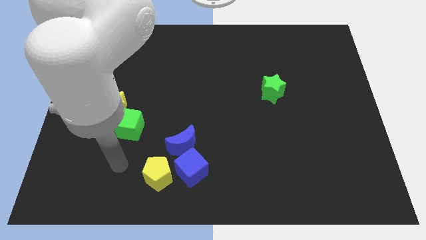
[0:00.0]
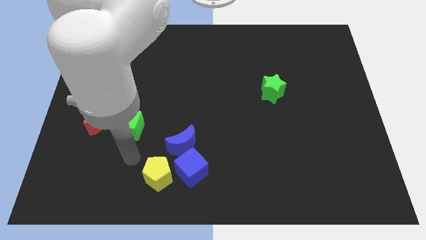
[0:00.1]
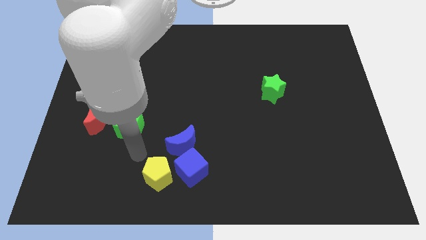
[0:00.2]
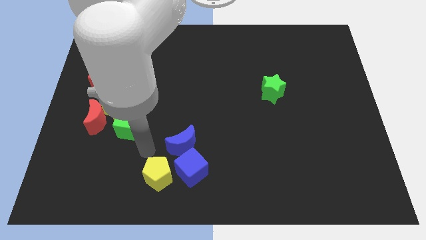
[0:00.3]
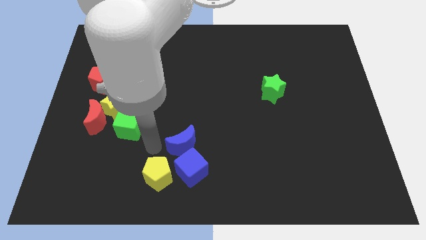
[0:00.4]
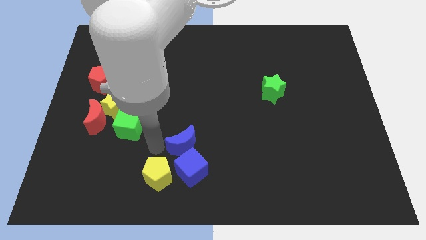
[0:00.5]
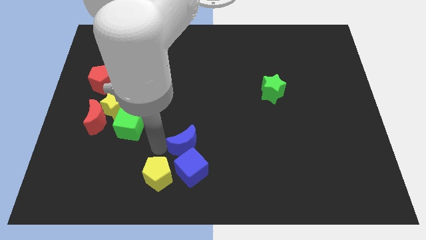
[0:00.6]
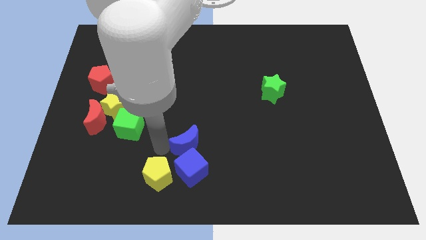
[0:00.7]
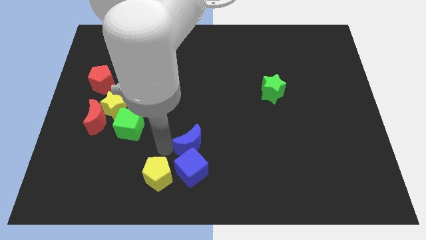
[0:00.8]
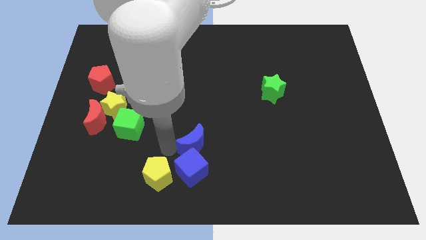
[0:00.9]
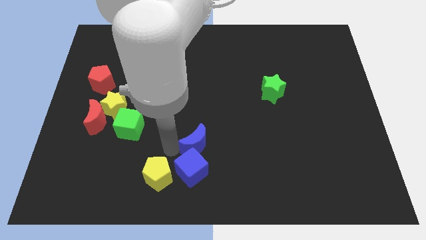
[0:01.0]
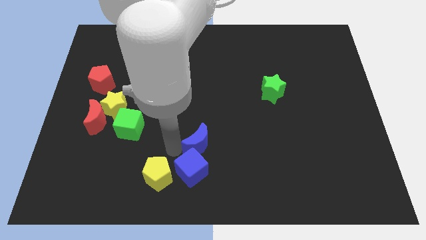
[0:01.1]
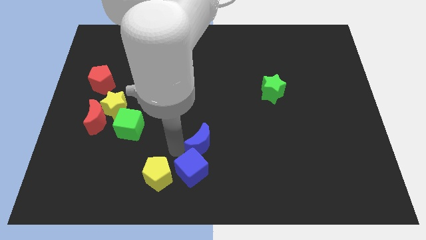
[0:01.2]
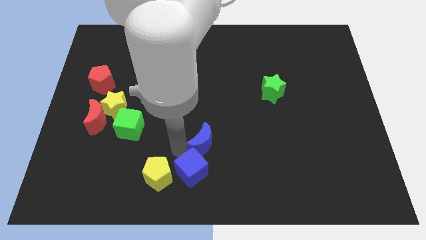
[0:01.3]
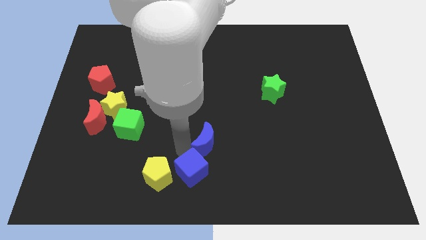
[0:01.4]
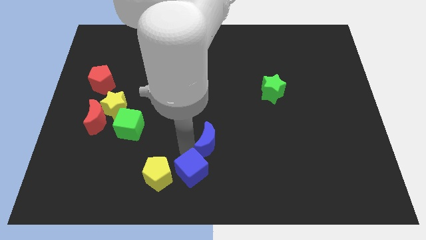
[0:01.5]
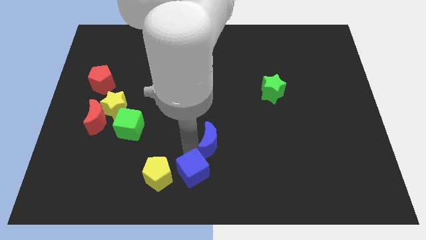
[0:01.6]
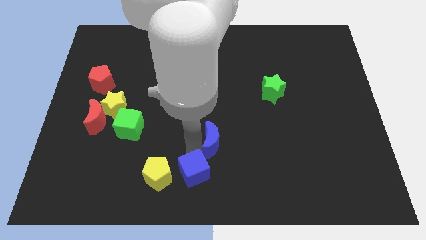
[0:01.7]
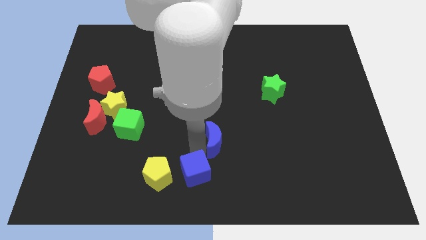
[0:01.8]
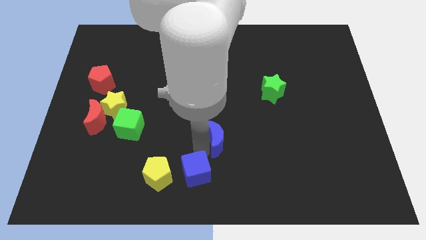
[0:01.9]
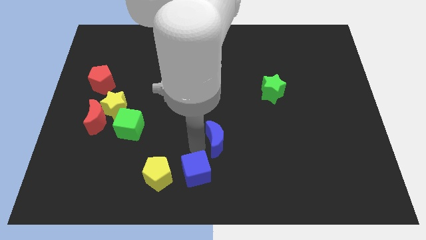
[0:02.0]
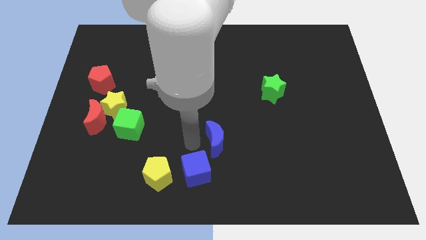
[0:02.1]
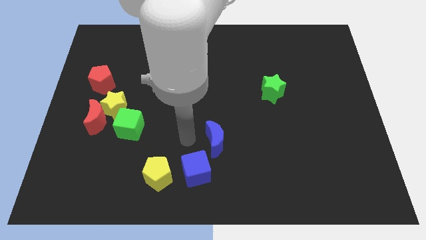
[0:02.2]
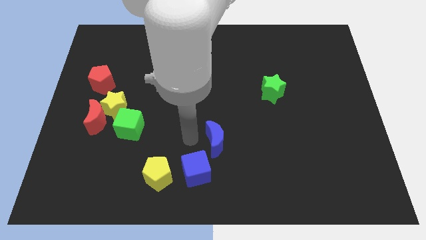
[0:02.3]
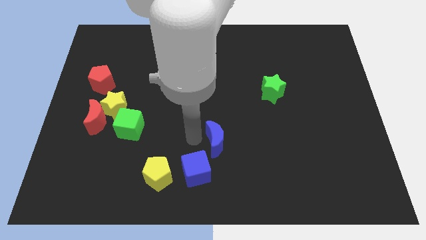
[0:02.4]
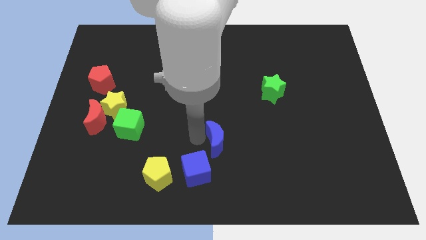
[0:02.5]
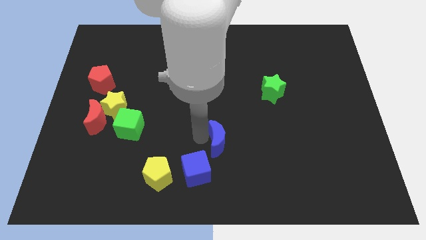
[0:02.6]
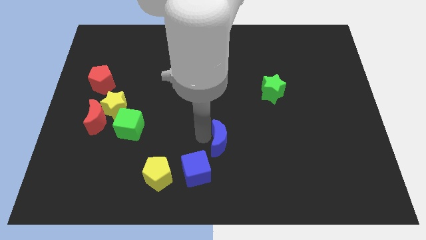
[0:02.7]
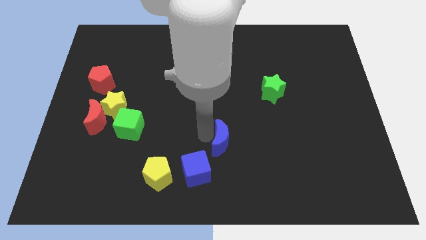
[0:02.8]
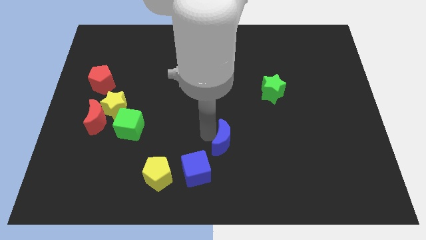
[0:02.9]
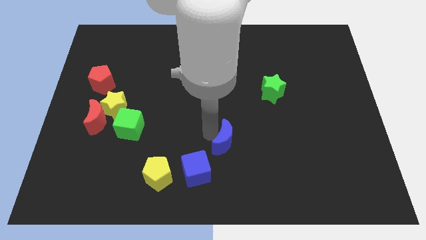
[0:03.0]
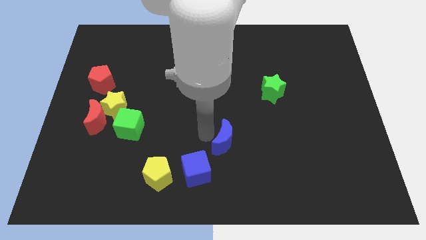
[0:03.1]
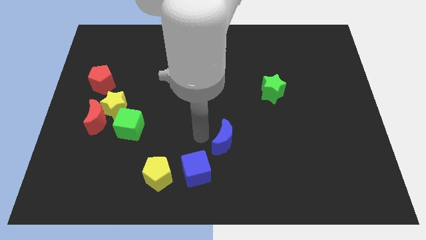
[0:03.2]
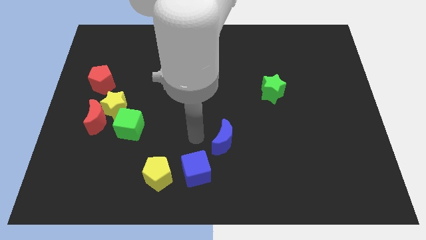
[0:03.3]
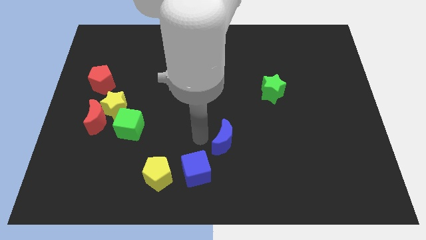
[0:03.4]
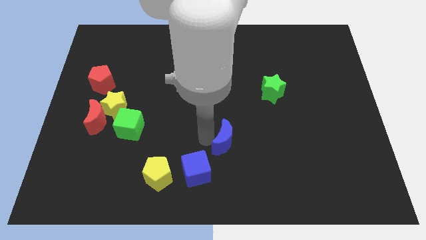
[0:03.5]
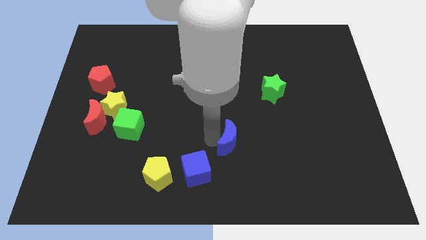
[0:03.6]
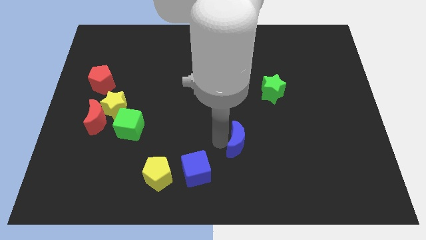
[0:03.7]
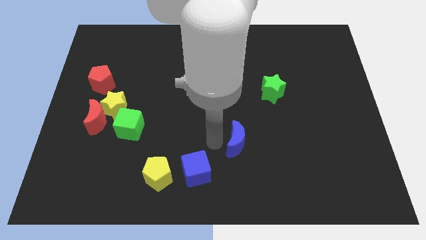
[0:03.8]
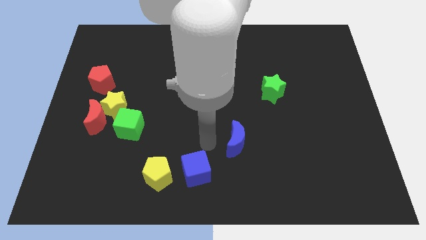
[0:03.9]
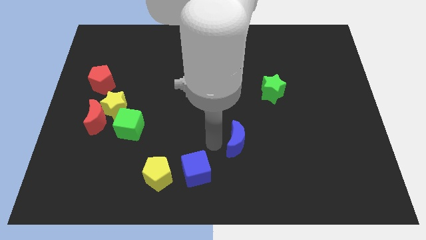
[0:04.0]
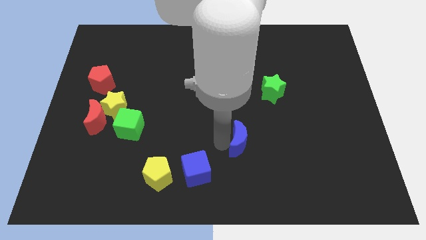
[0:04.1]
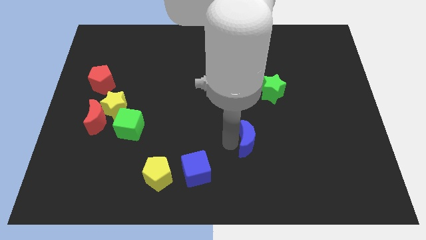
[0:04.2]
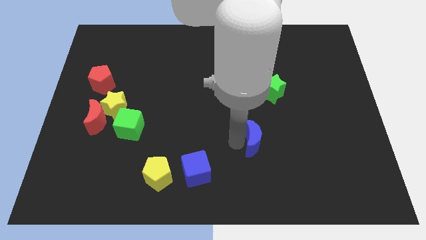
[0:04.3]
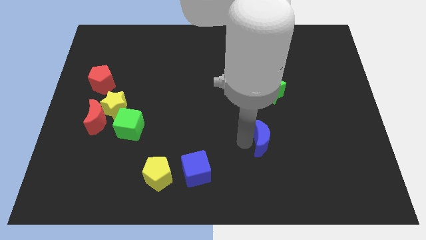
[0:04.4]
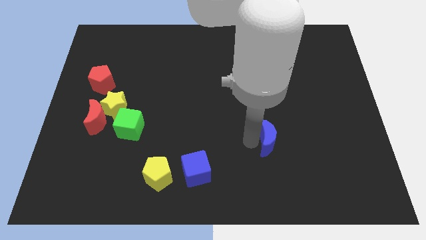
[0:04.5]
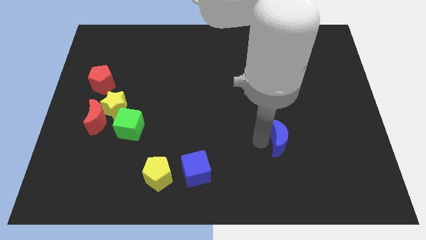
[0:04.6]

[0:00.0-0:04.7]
move the blue moon to the right

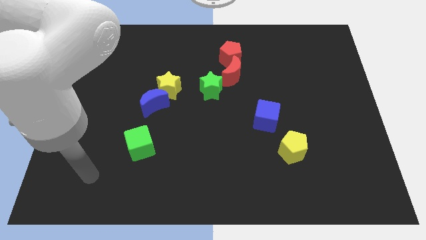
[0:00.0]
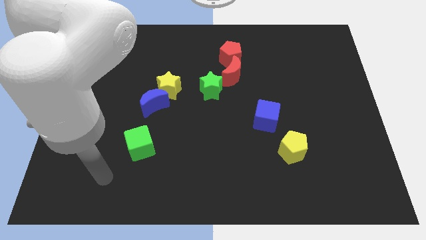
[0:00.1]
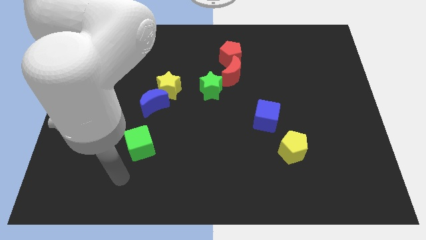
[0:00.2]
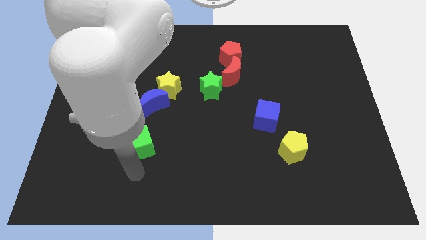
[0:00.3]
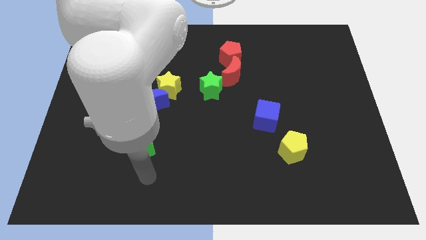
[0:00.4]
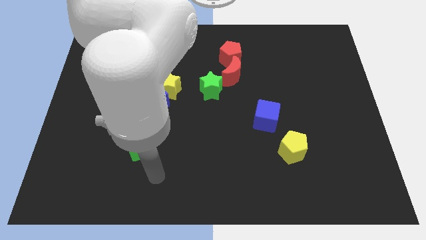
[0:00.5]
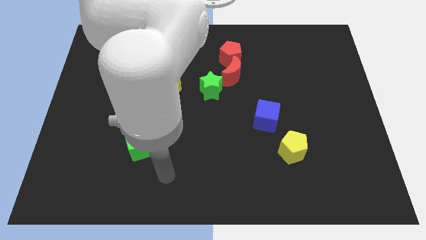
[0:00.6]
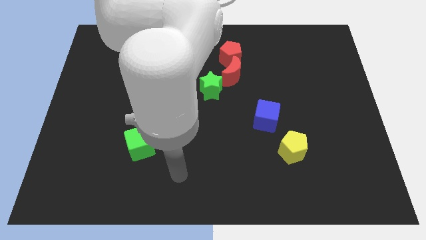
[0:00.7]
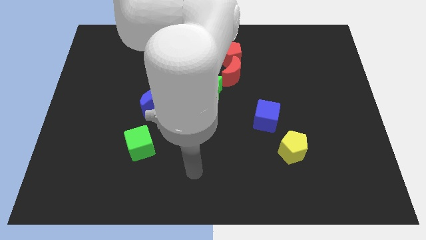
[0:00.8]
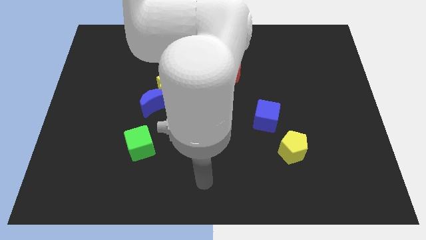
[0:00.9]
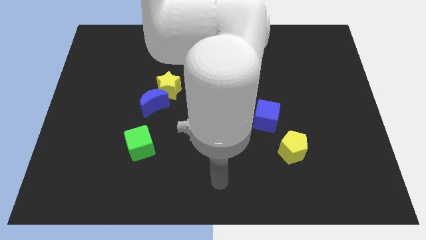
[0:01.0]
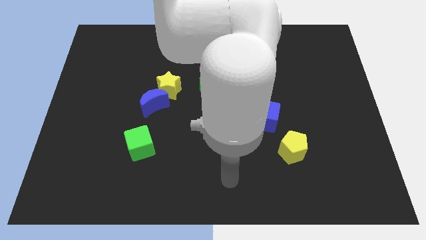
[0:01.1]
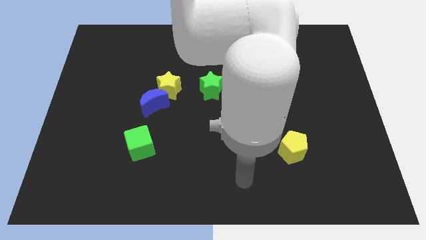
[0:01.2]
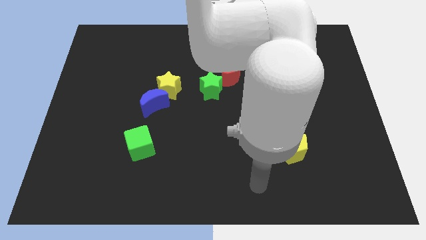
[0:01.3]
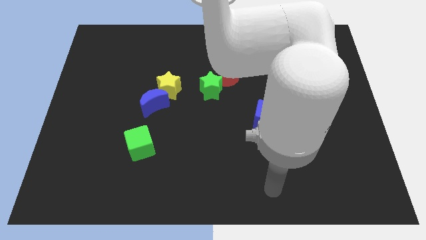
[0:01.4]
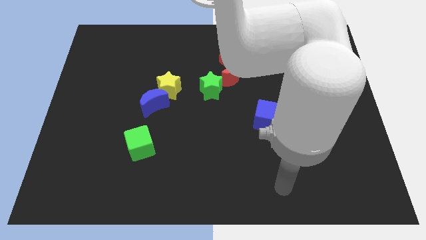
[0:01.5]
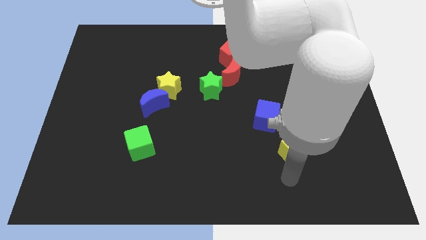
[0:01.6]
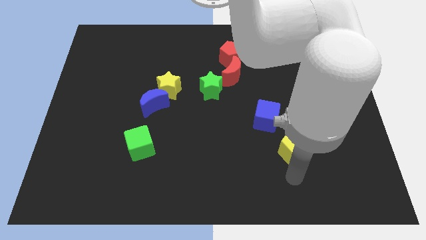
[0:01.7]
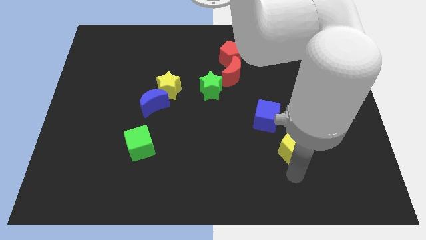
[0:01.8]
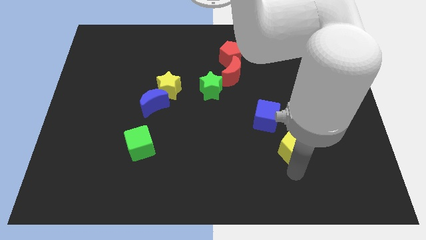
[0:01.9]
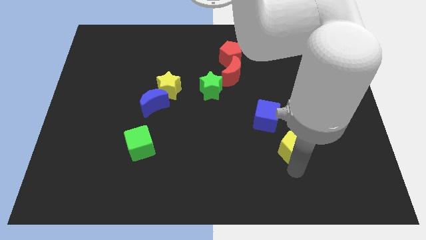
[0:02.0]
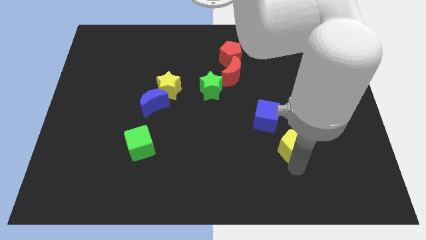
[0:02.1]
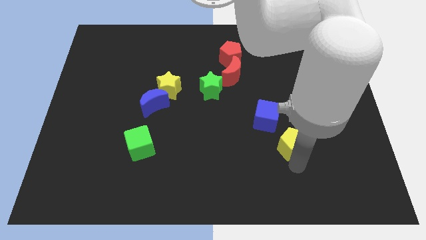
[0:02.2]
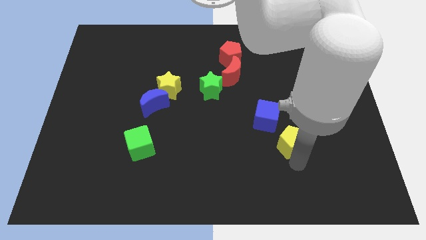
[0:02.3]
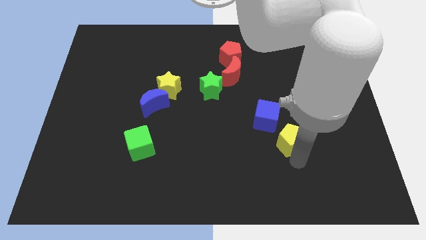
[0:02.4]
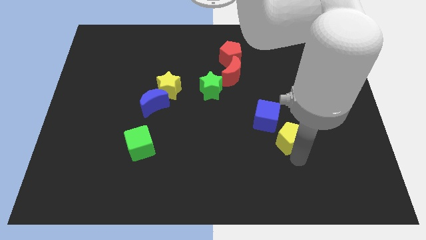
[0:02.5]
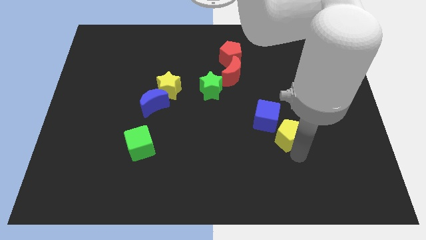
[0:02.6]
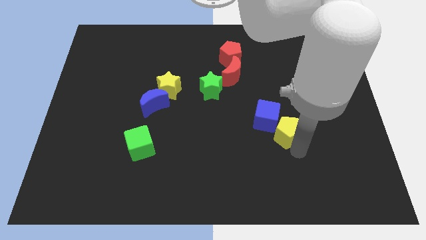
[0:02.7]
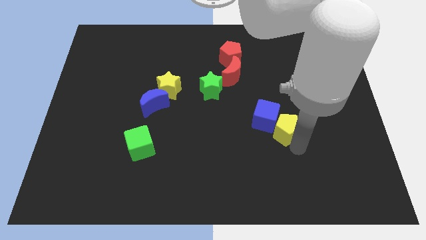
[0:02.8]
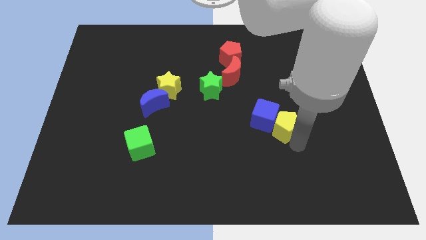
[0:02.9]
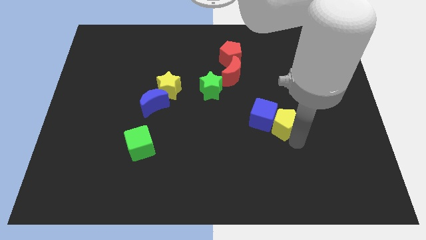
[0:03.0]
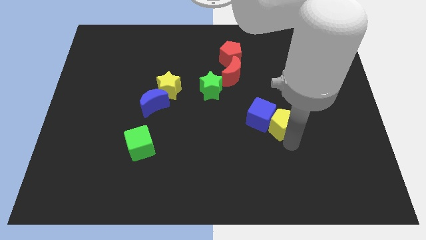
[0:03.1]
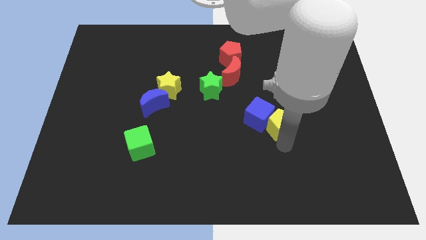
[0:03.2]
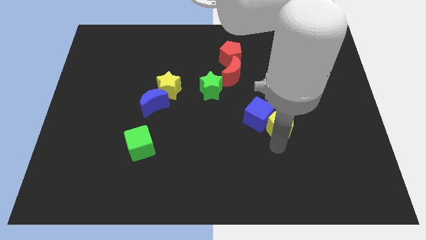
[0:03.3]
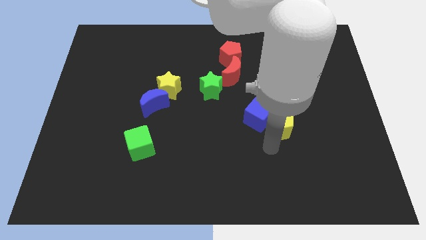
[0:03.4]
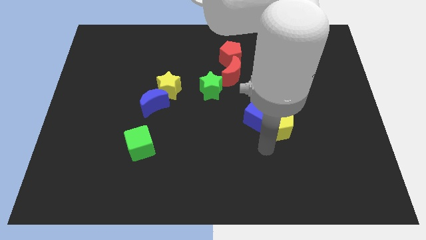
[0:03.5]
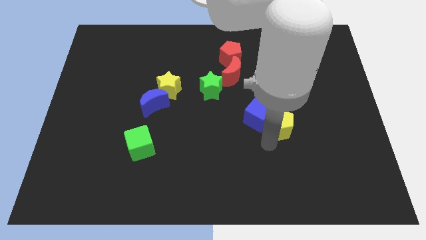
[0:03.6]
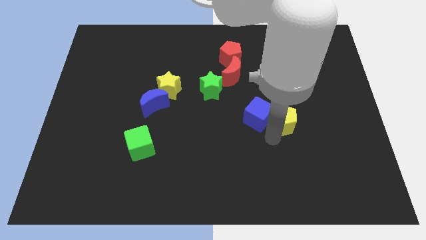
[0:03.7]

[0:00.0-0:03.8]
slide the yellow pentagon up slightly
